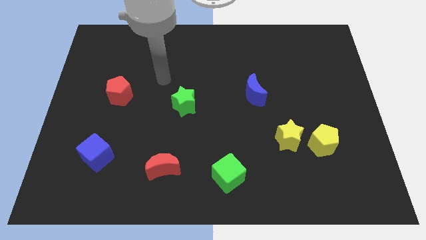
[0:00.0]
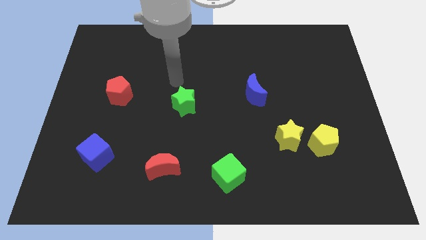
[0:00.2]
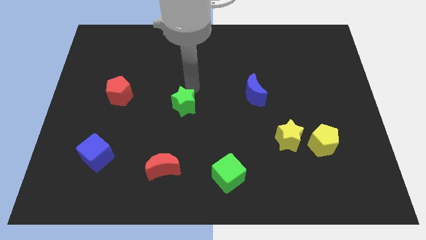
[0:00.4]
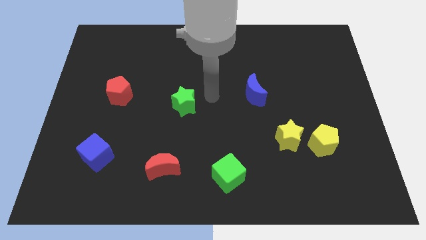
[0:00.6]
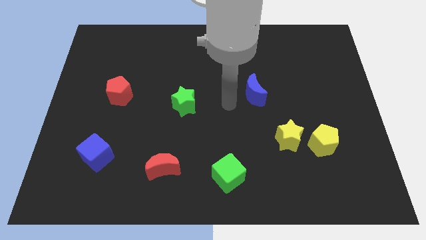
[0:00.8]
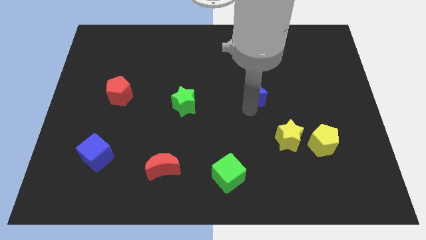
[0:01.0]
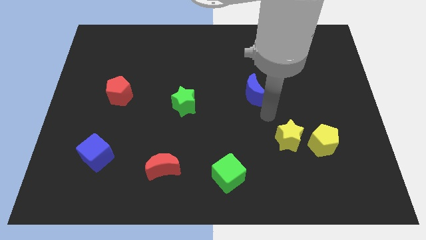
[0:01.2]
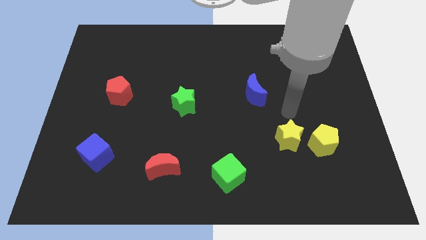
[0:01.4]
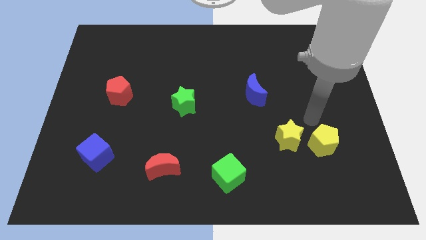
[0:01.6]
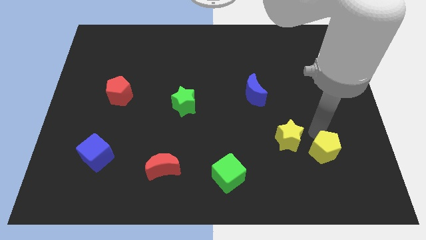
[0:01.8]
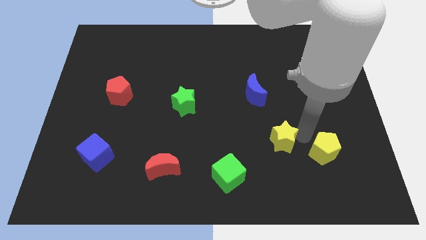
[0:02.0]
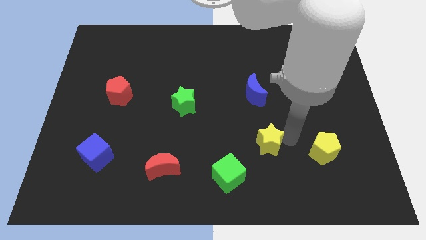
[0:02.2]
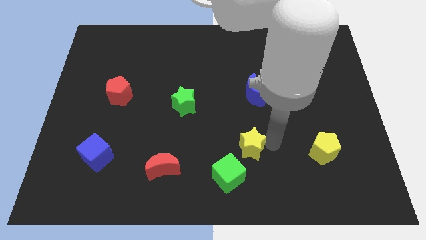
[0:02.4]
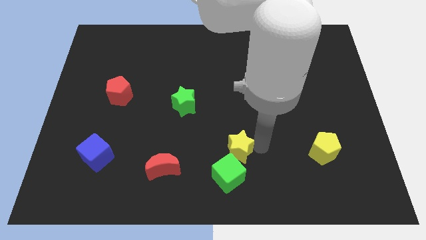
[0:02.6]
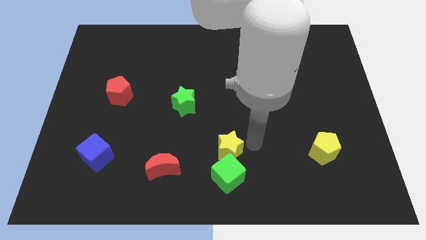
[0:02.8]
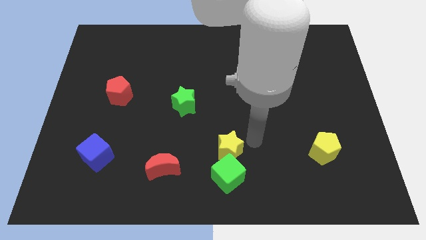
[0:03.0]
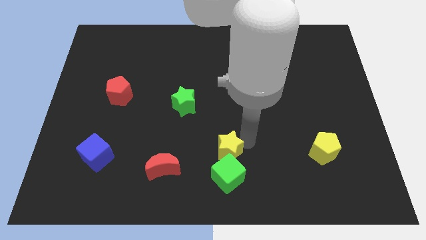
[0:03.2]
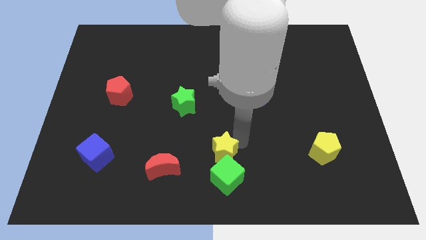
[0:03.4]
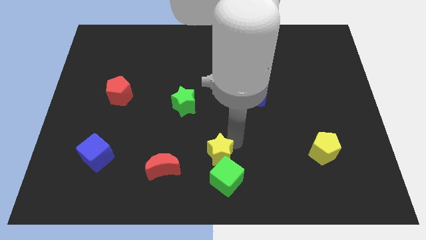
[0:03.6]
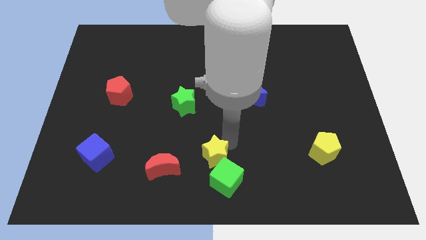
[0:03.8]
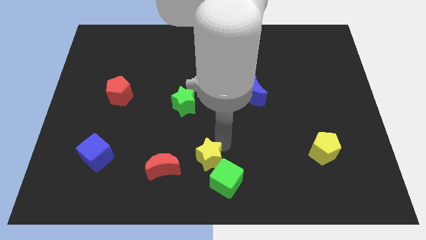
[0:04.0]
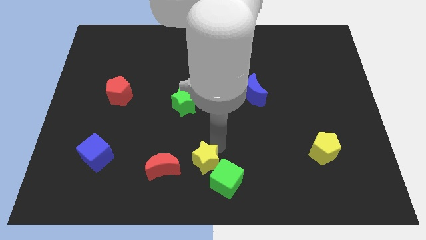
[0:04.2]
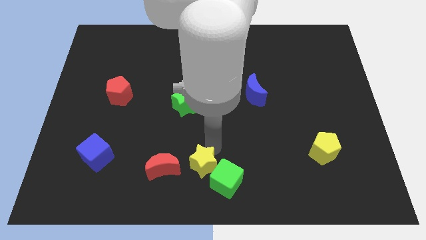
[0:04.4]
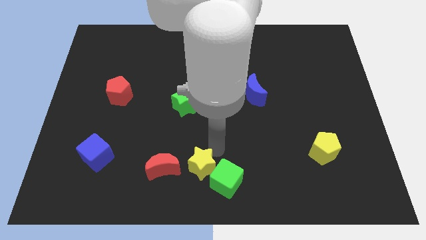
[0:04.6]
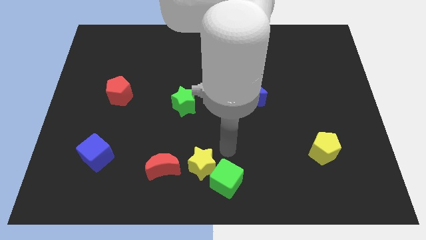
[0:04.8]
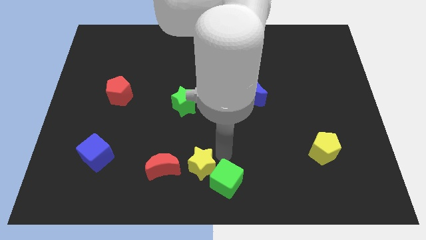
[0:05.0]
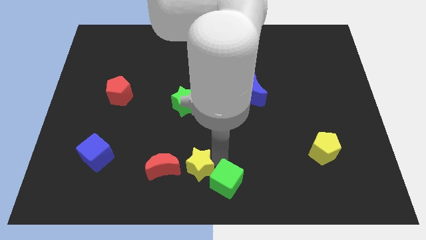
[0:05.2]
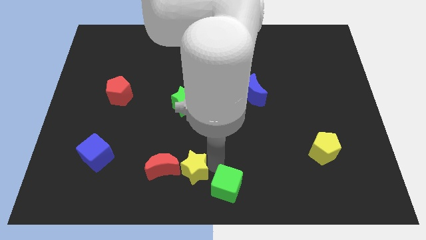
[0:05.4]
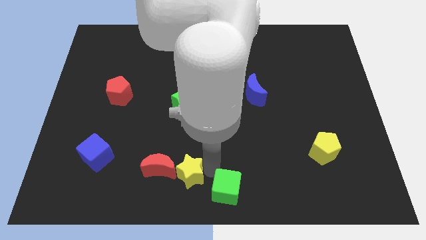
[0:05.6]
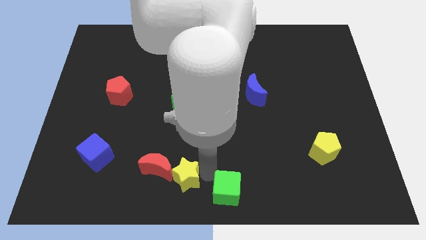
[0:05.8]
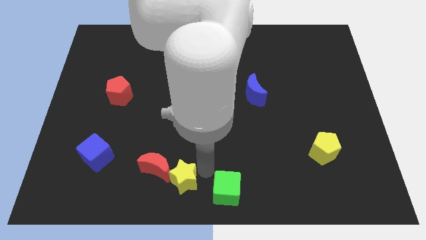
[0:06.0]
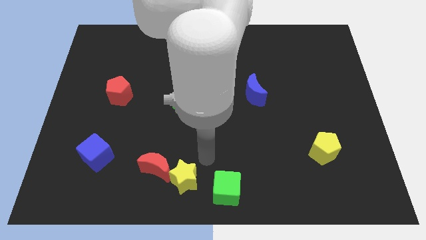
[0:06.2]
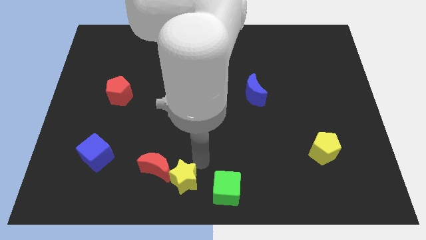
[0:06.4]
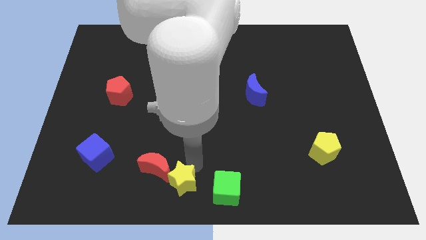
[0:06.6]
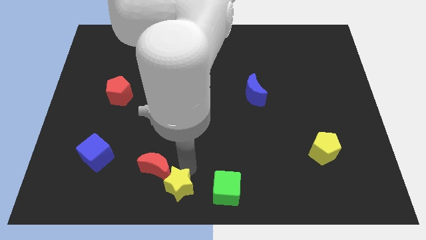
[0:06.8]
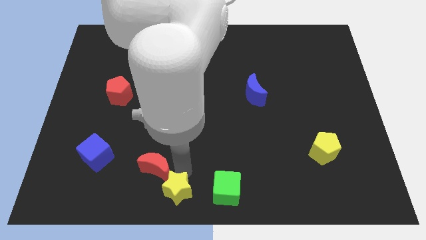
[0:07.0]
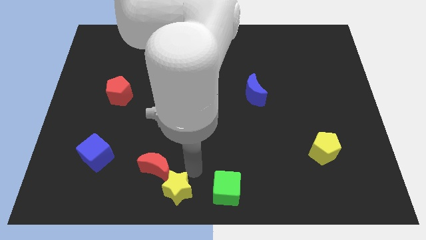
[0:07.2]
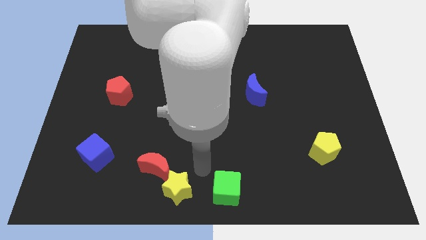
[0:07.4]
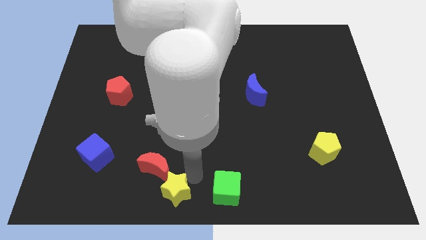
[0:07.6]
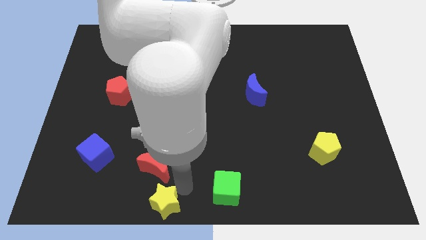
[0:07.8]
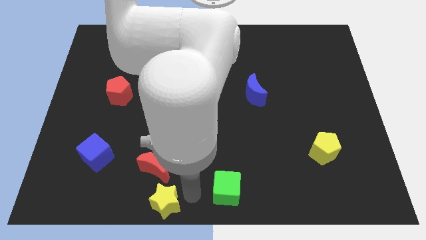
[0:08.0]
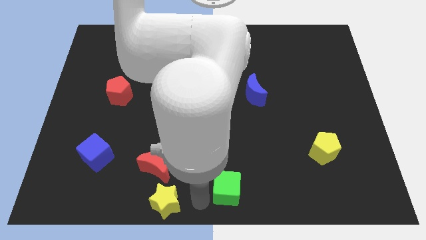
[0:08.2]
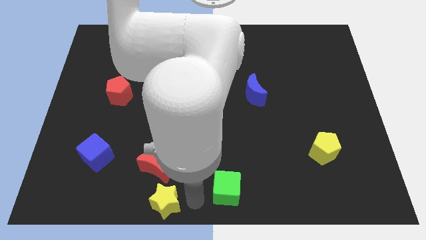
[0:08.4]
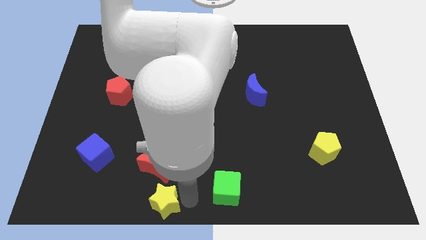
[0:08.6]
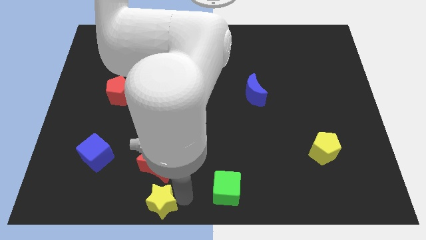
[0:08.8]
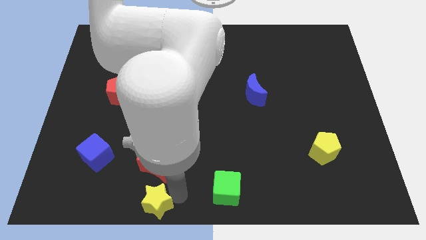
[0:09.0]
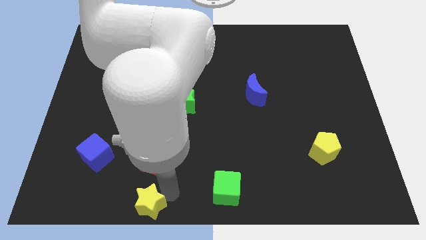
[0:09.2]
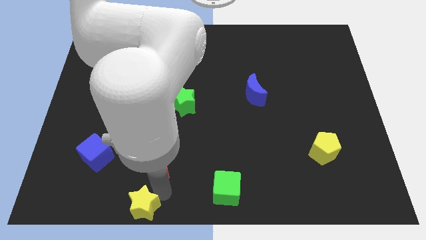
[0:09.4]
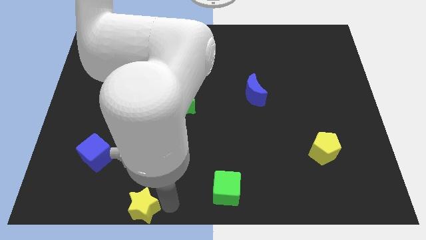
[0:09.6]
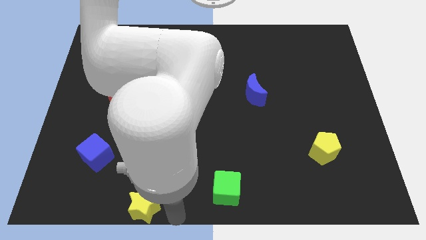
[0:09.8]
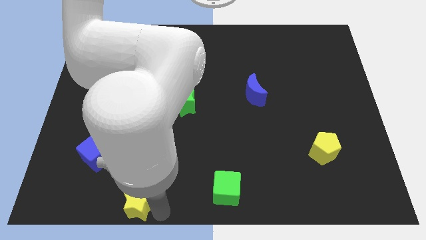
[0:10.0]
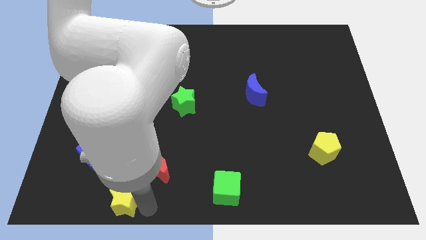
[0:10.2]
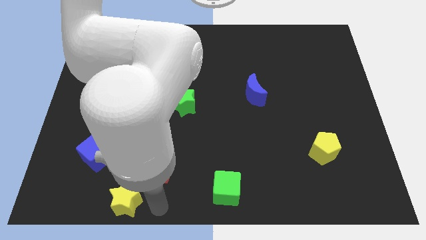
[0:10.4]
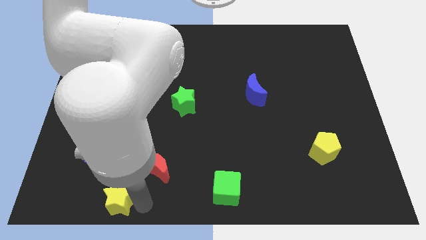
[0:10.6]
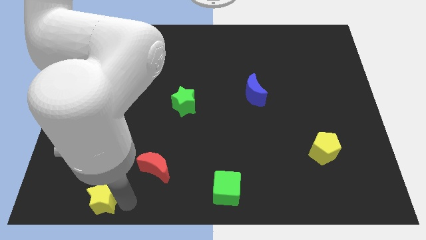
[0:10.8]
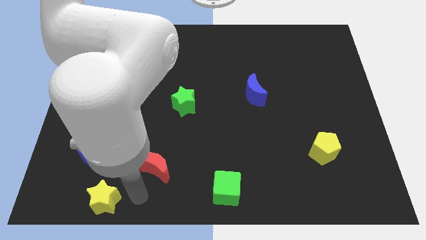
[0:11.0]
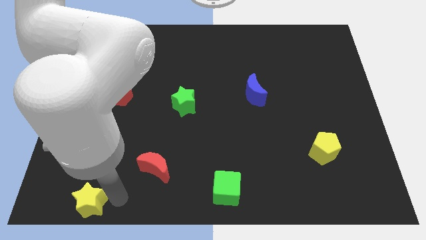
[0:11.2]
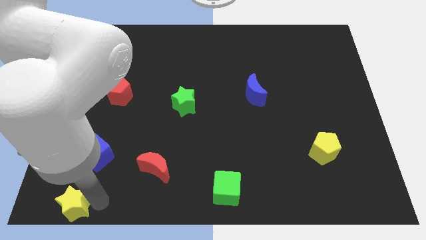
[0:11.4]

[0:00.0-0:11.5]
move the yellow star to the bottom left corner
